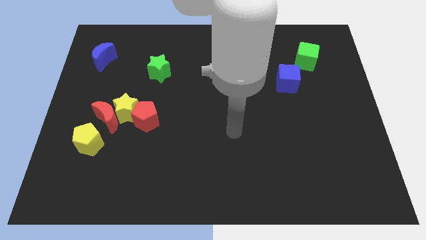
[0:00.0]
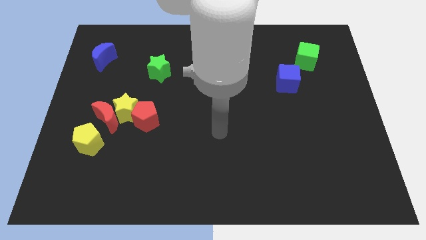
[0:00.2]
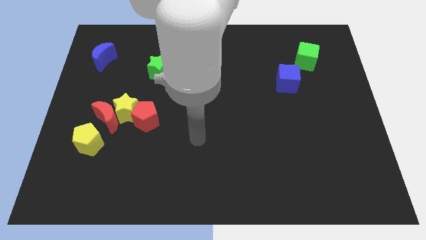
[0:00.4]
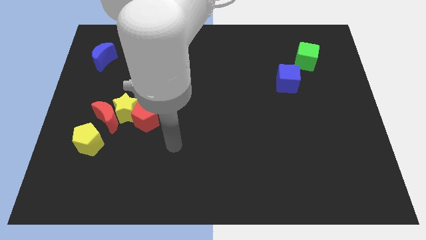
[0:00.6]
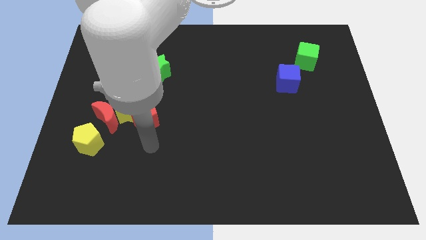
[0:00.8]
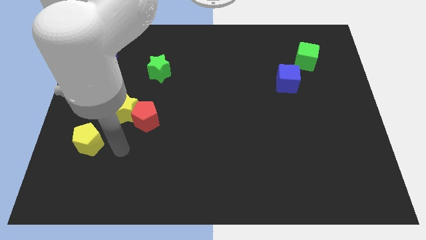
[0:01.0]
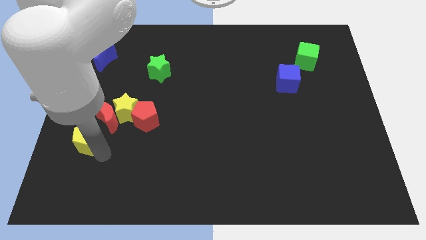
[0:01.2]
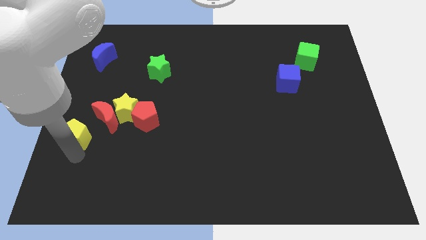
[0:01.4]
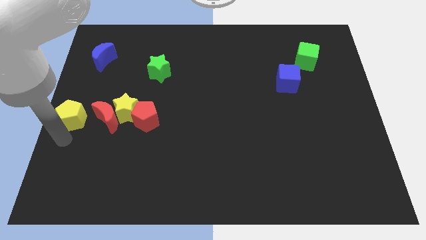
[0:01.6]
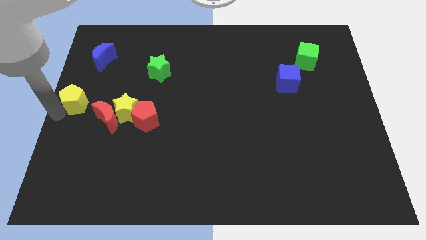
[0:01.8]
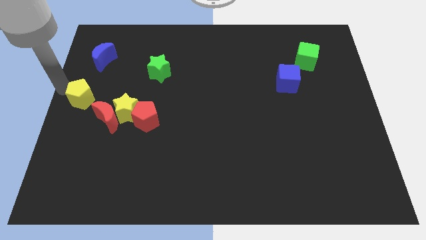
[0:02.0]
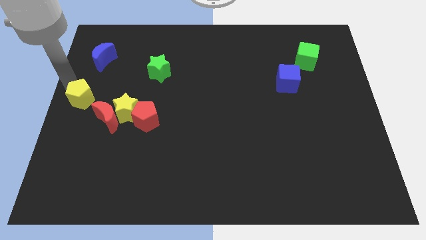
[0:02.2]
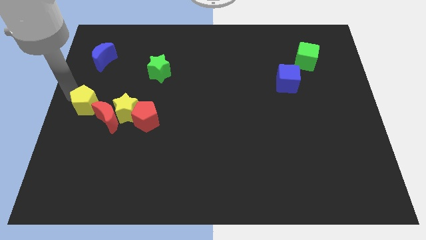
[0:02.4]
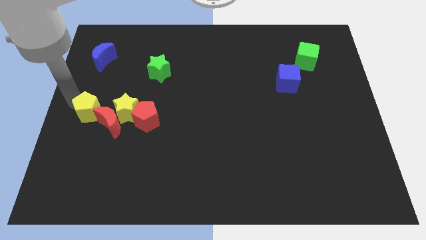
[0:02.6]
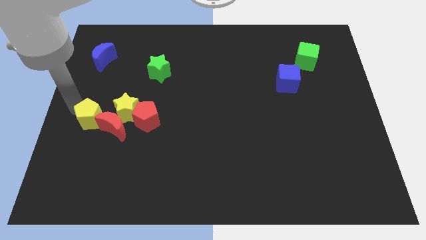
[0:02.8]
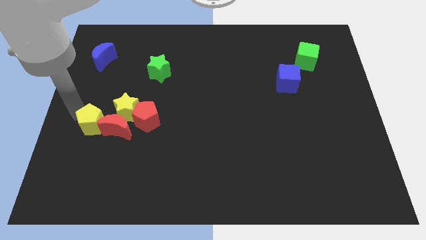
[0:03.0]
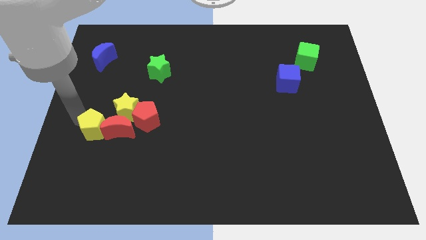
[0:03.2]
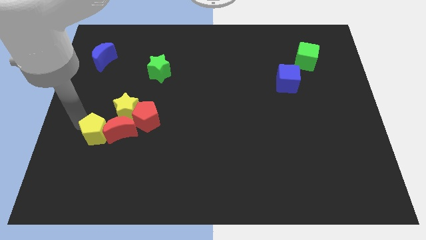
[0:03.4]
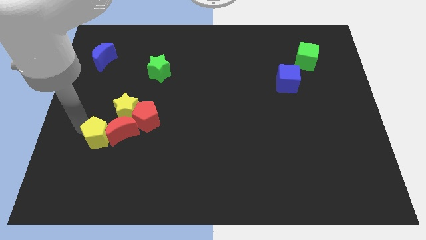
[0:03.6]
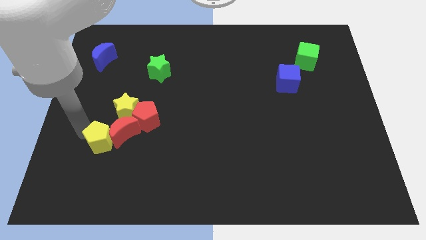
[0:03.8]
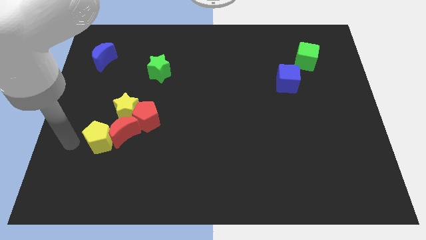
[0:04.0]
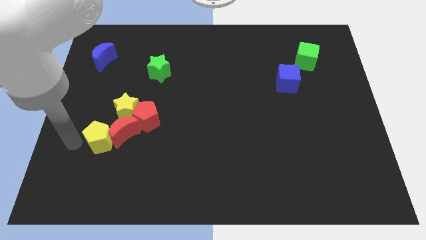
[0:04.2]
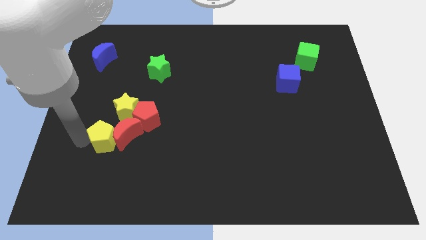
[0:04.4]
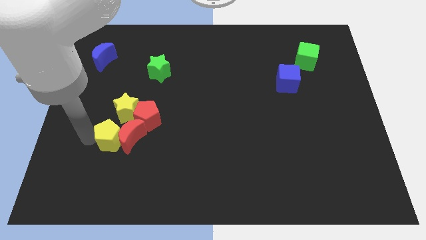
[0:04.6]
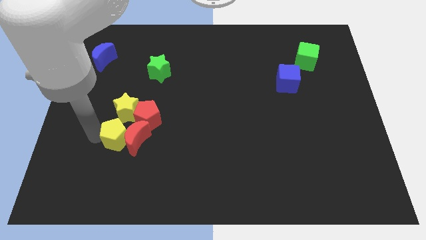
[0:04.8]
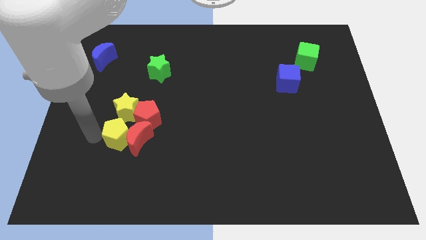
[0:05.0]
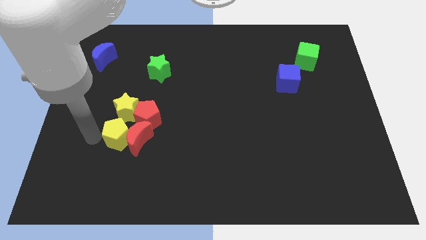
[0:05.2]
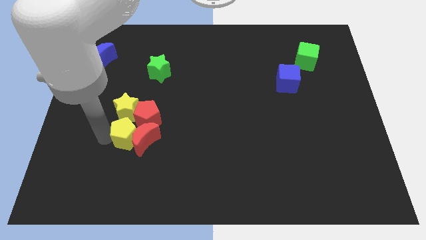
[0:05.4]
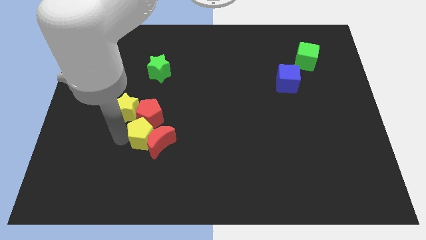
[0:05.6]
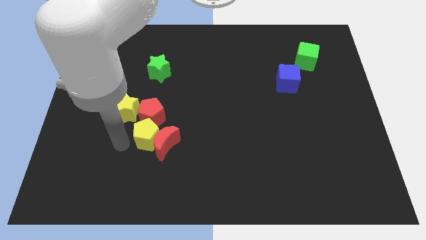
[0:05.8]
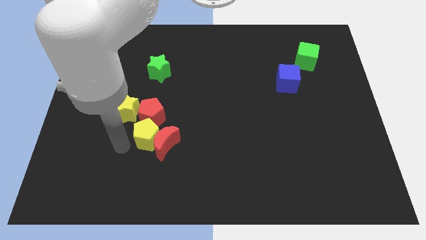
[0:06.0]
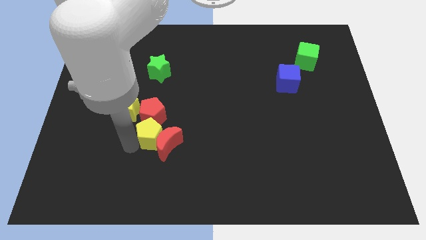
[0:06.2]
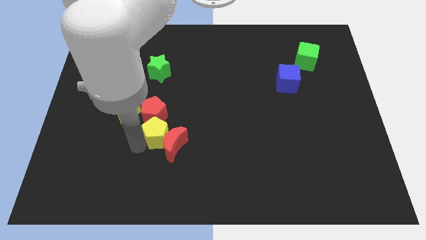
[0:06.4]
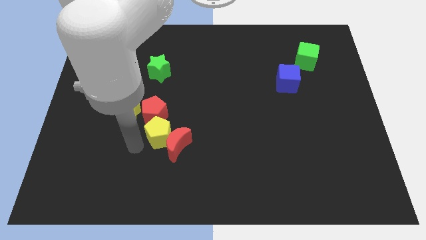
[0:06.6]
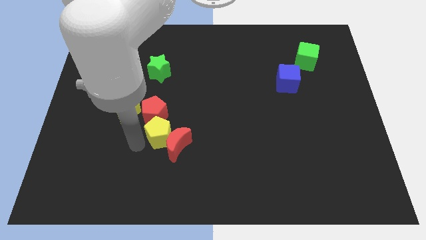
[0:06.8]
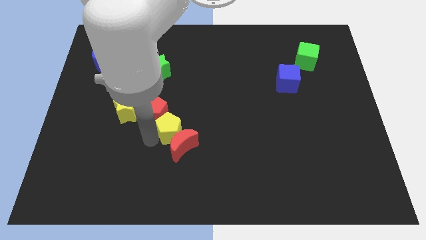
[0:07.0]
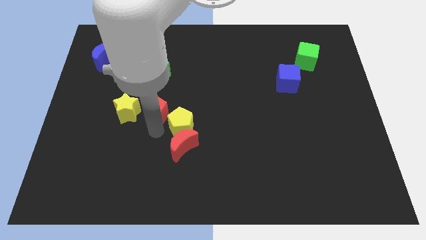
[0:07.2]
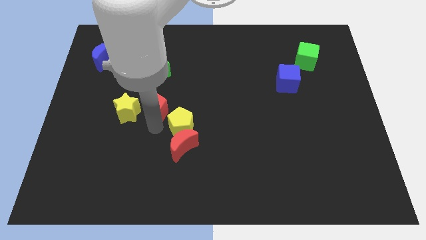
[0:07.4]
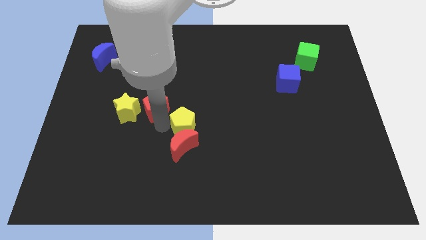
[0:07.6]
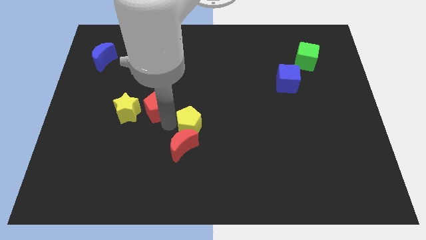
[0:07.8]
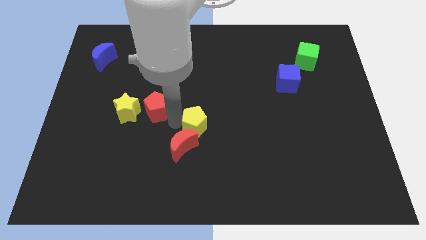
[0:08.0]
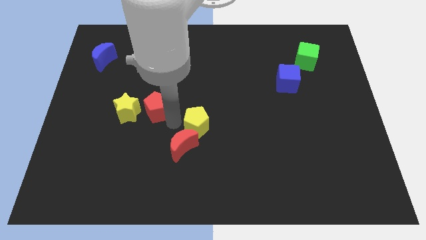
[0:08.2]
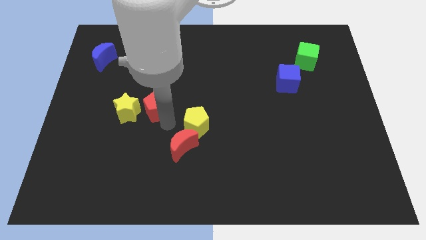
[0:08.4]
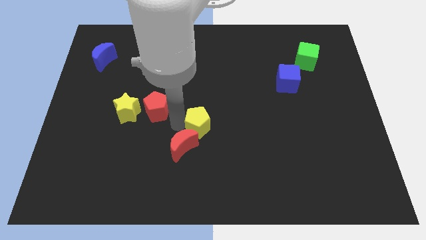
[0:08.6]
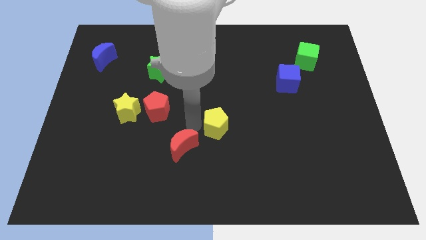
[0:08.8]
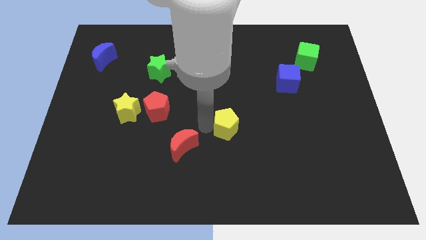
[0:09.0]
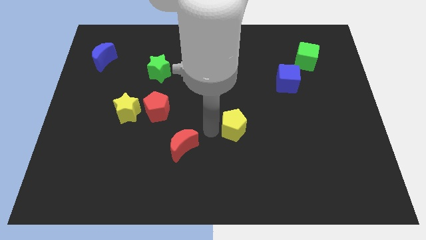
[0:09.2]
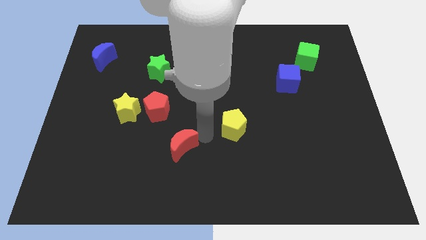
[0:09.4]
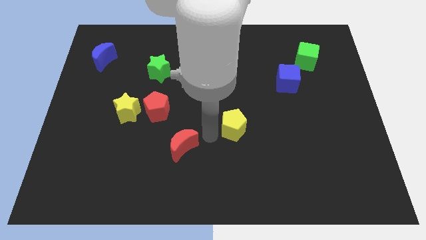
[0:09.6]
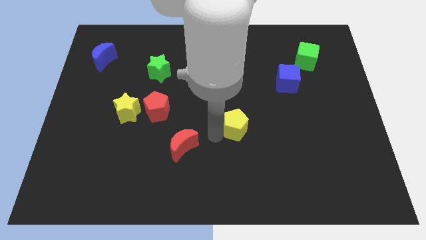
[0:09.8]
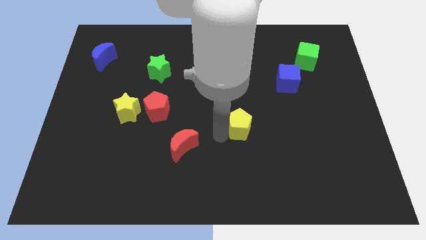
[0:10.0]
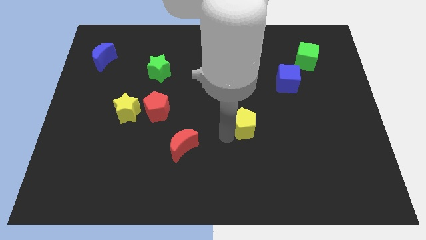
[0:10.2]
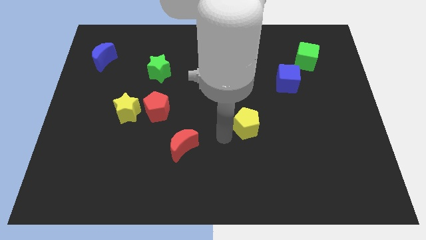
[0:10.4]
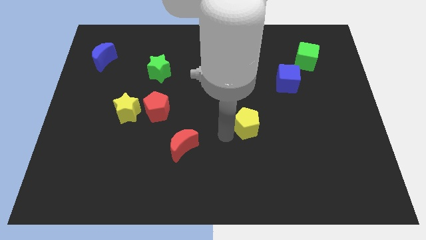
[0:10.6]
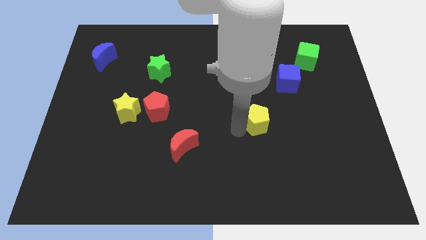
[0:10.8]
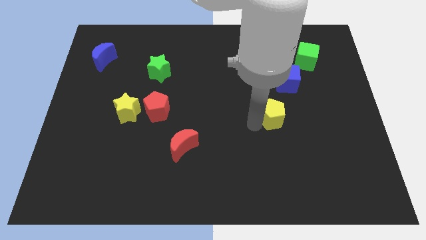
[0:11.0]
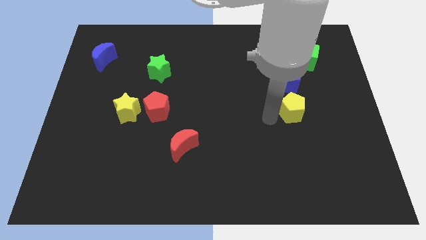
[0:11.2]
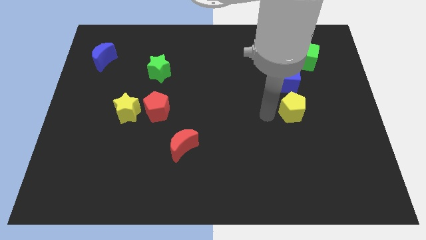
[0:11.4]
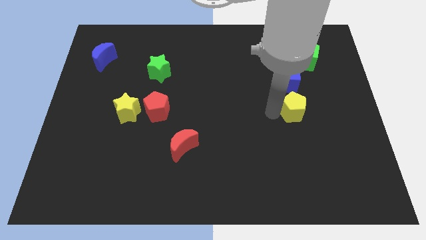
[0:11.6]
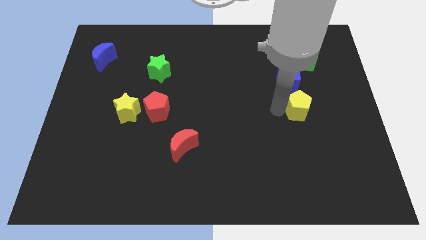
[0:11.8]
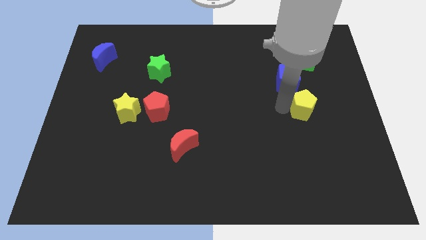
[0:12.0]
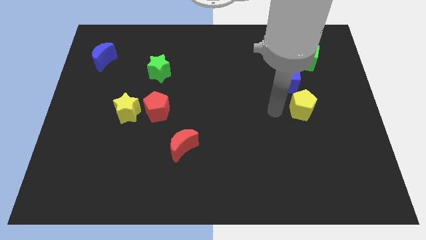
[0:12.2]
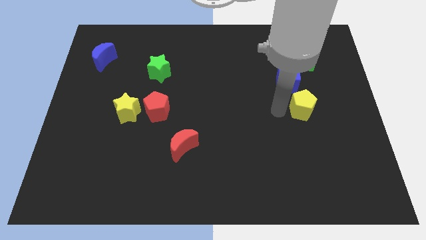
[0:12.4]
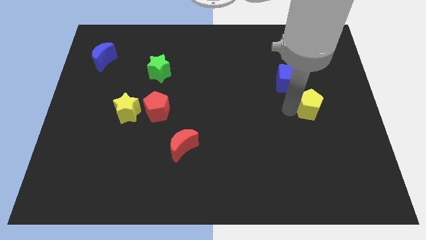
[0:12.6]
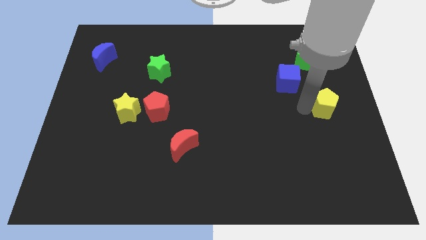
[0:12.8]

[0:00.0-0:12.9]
slide the yellow pentagon to the center right
